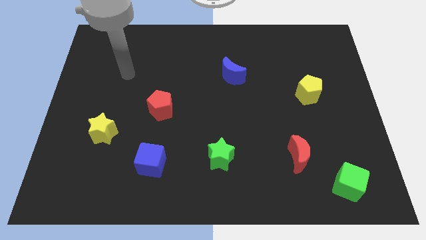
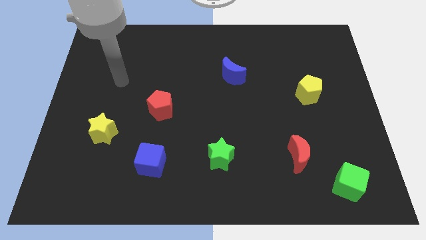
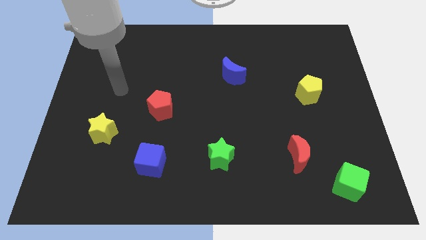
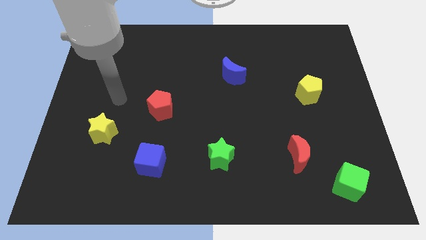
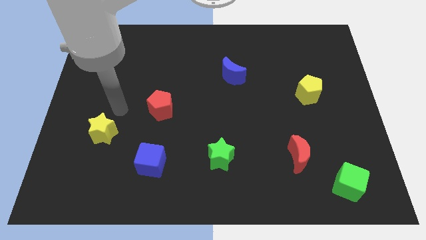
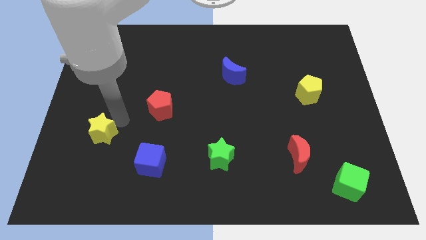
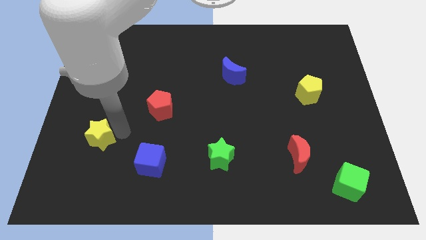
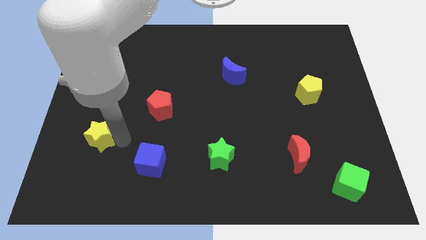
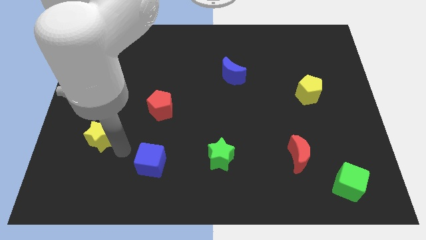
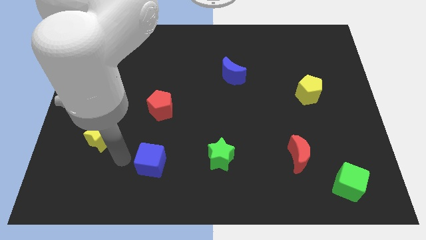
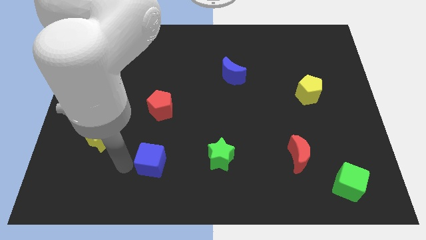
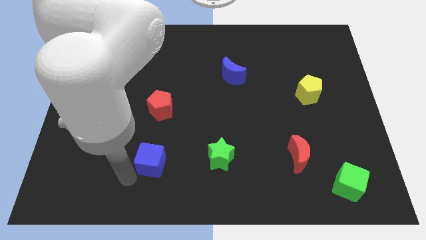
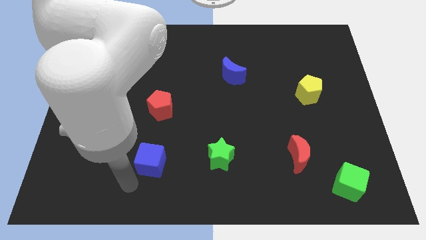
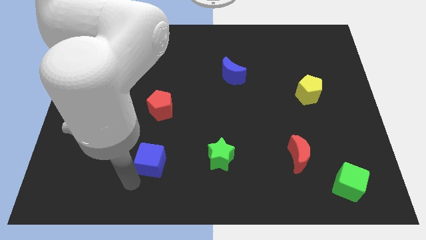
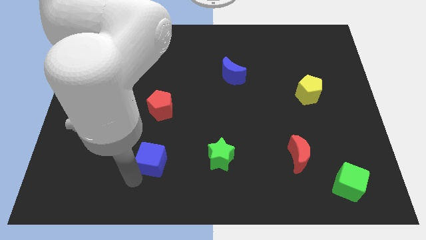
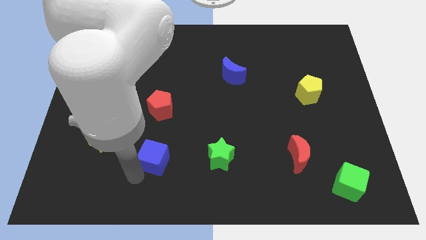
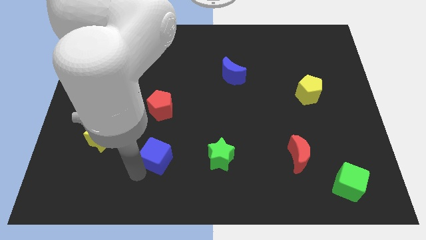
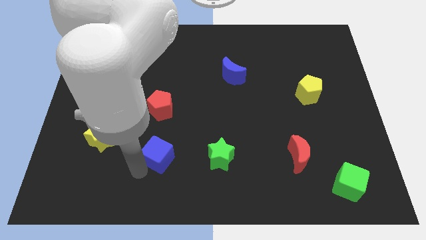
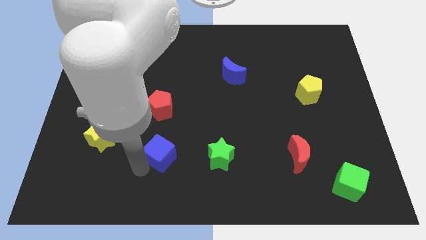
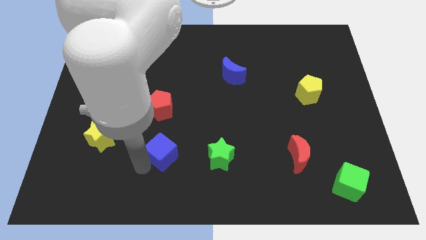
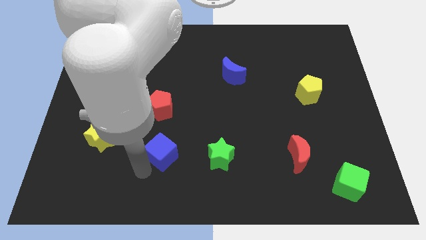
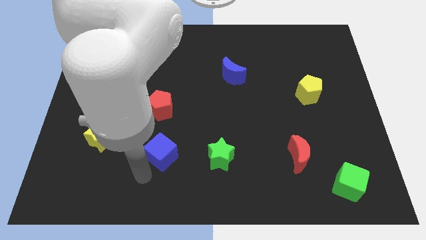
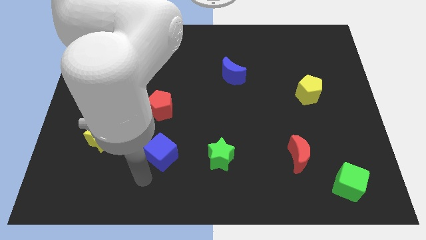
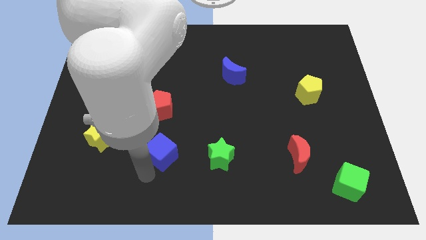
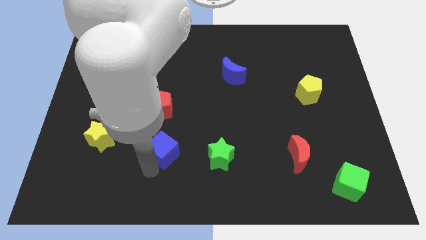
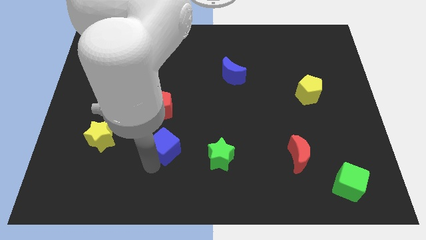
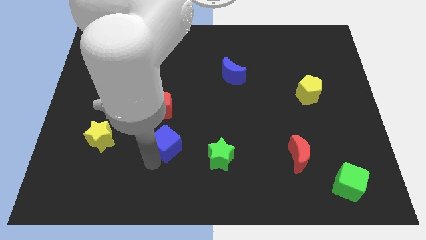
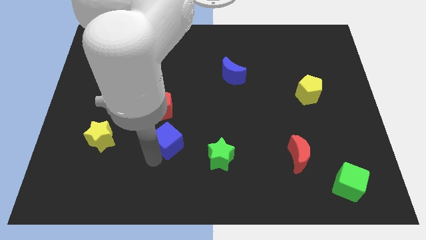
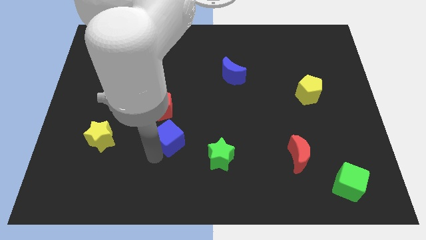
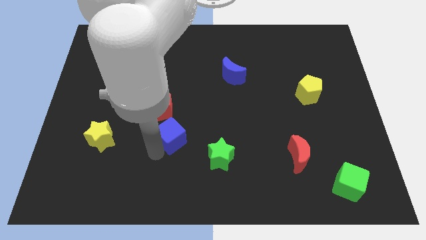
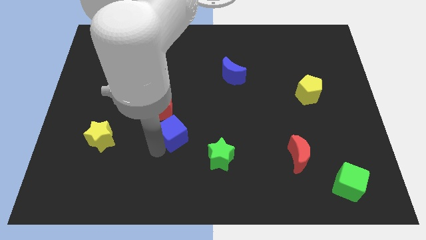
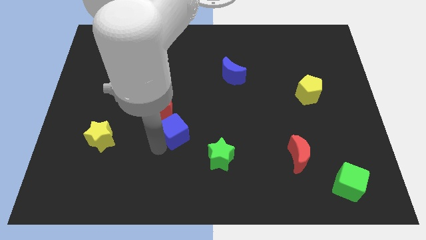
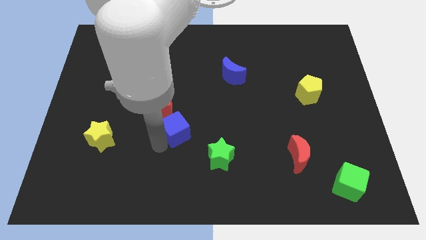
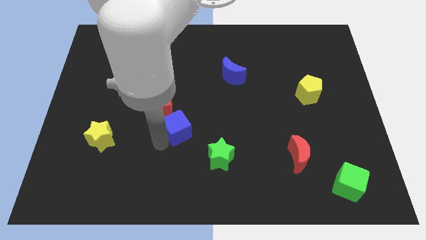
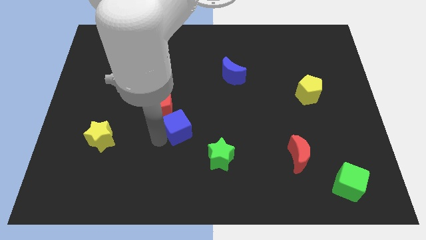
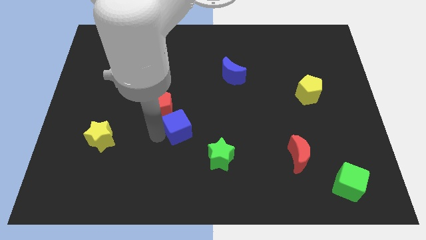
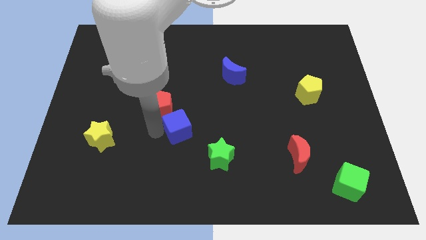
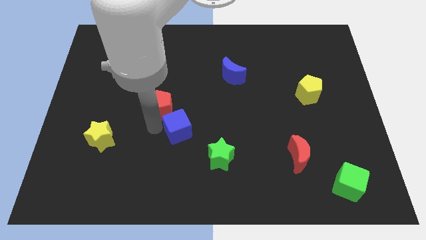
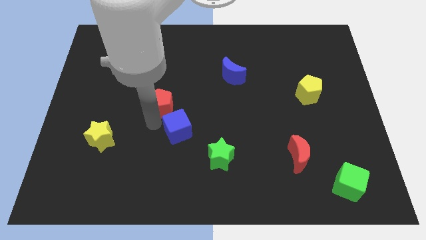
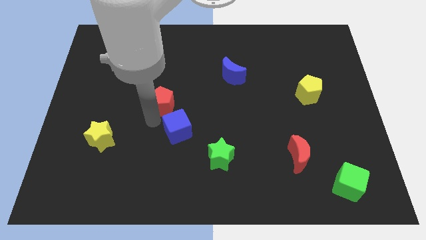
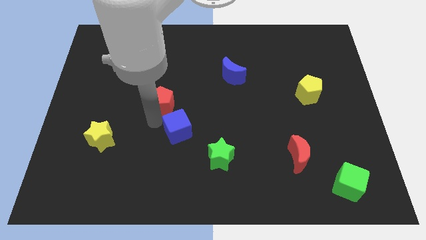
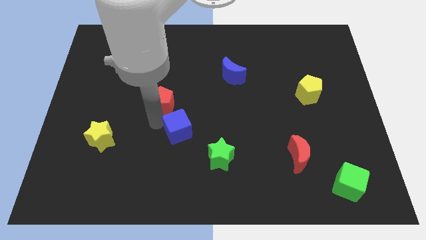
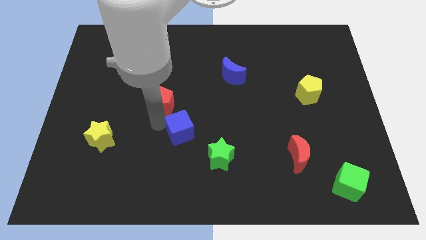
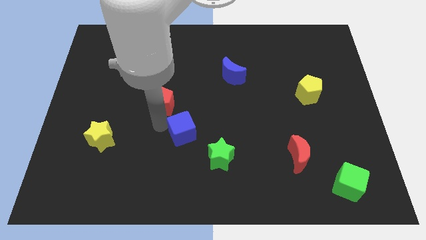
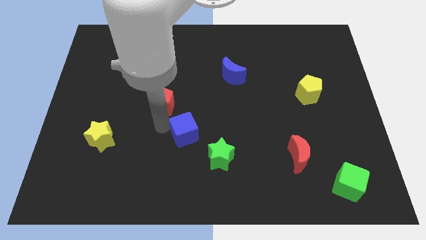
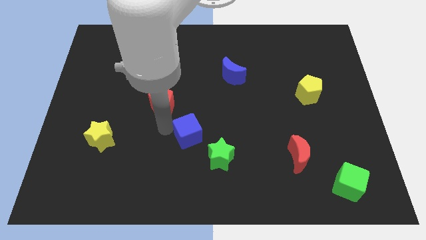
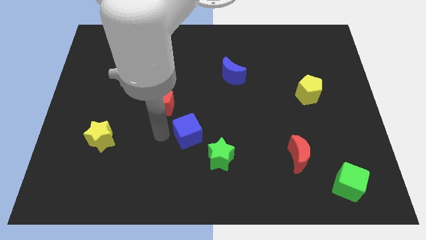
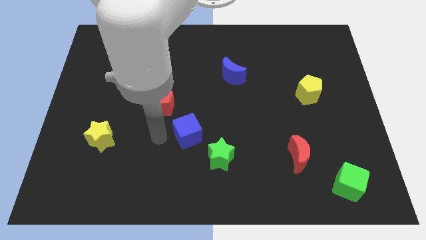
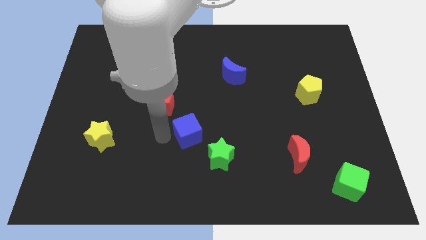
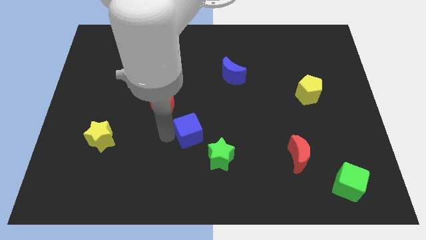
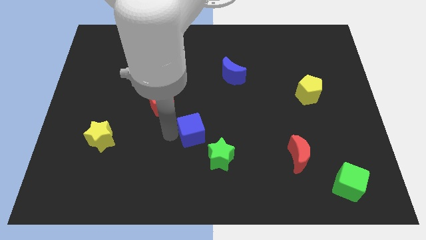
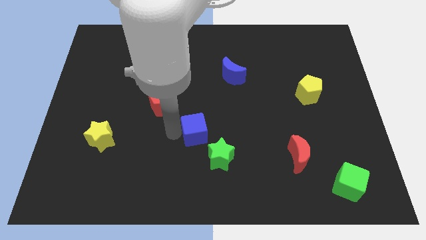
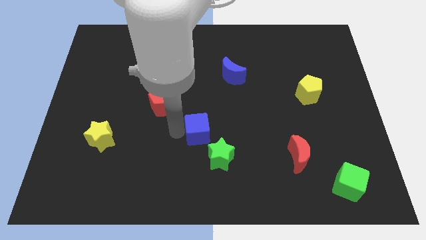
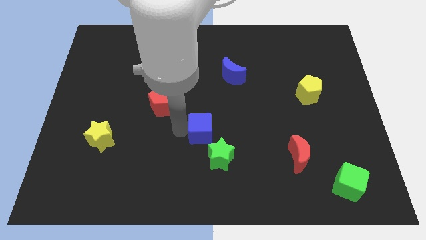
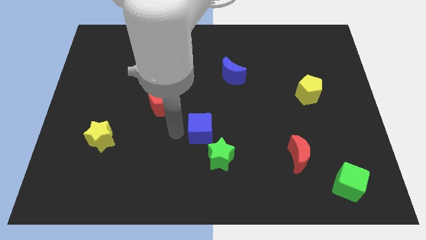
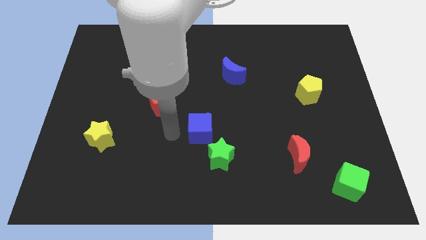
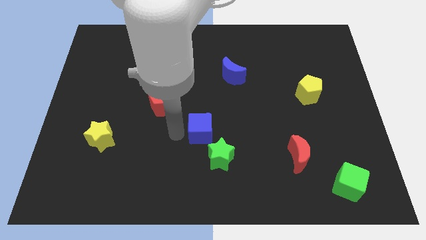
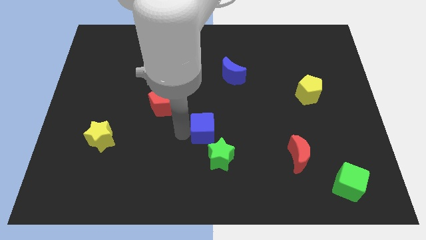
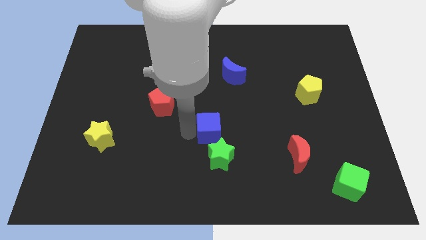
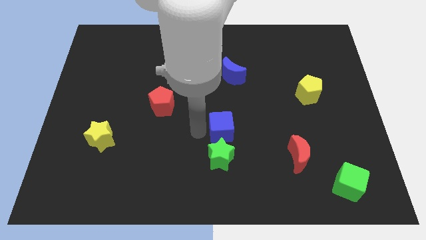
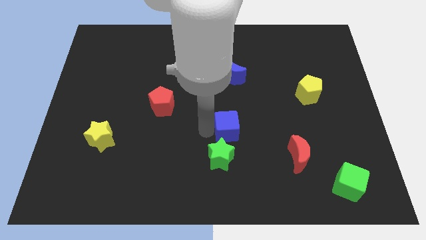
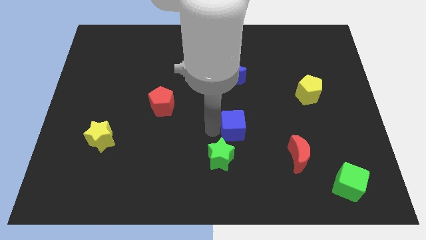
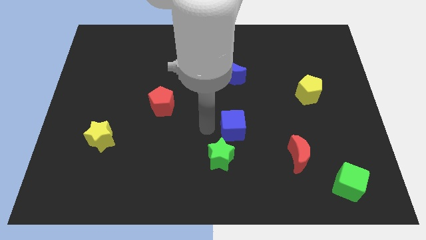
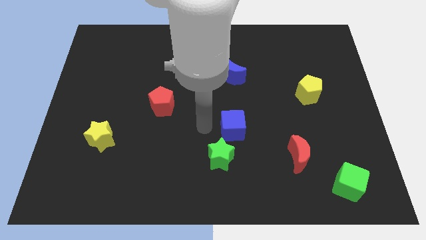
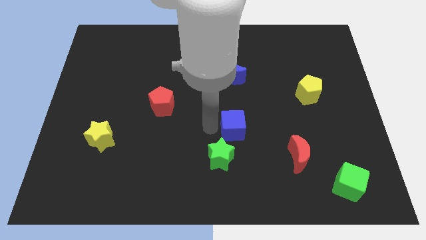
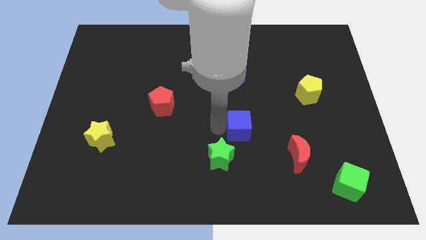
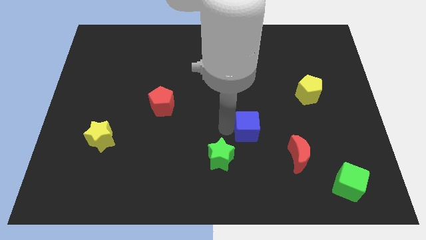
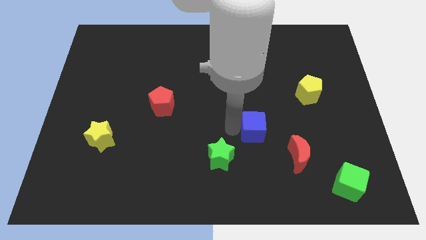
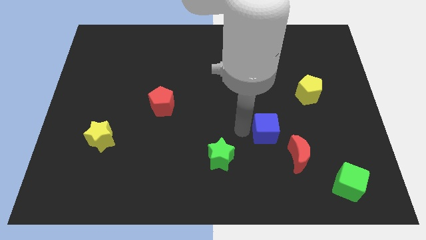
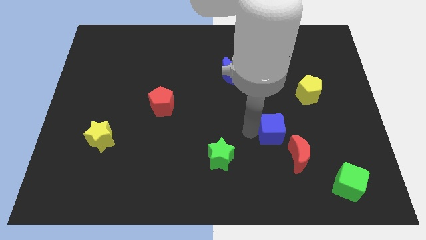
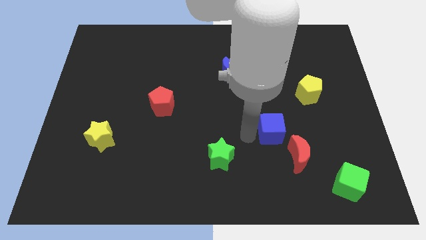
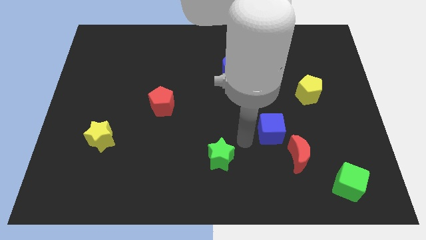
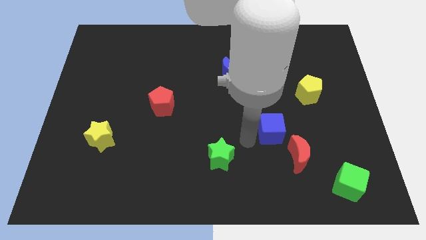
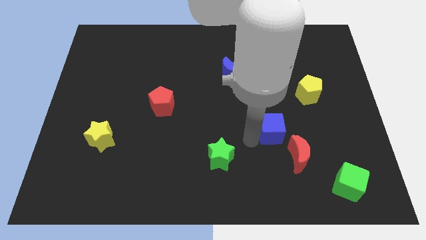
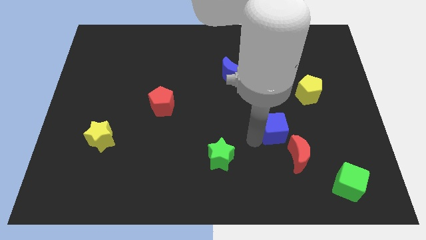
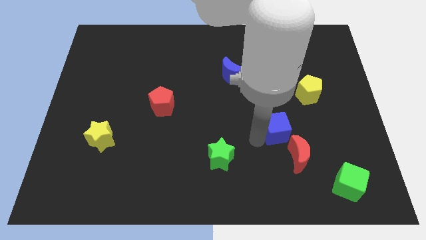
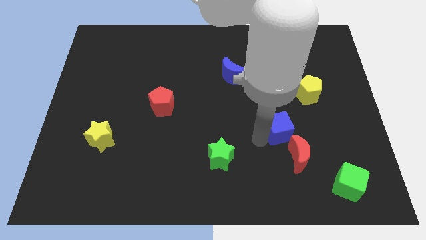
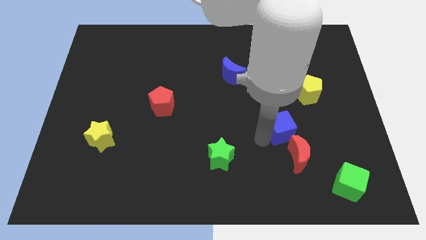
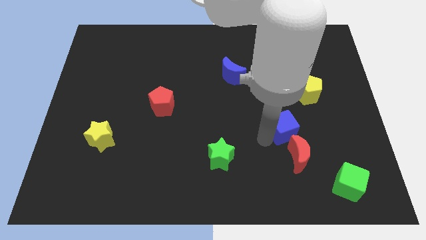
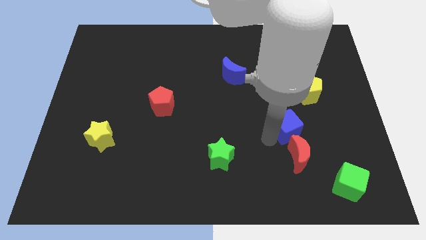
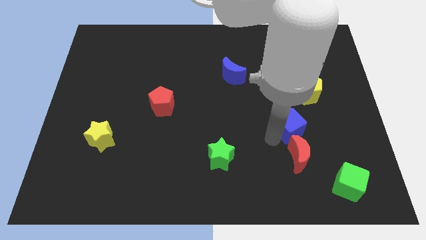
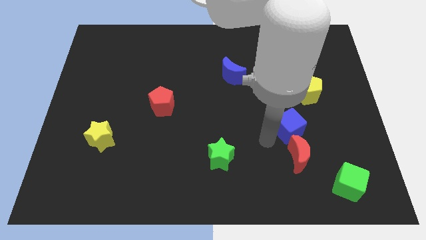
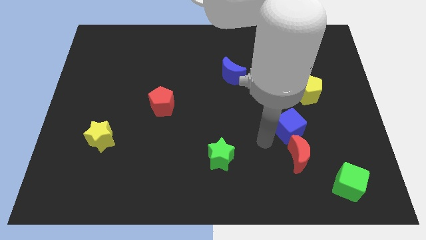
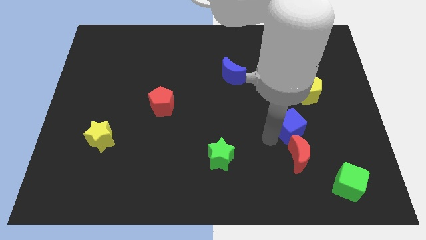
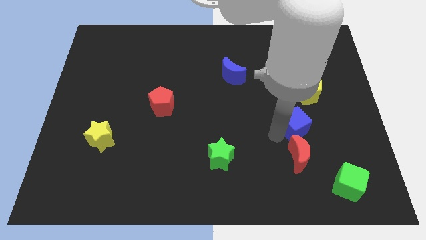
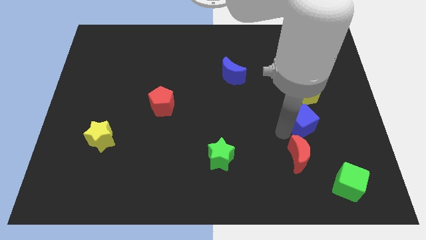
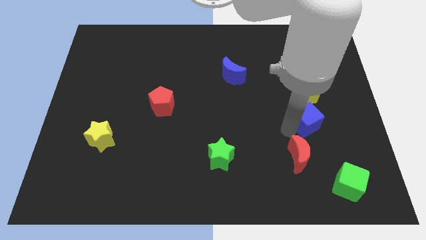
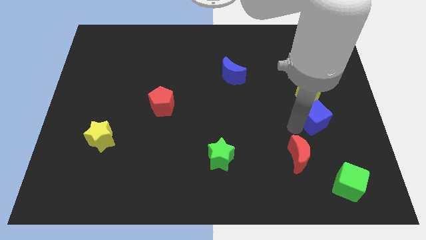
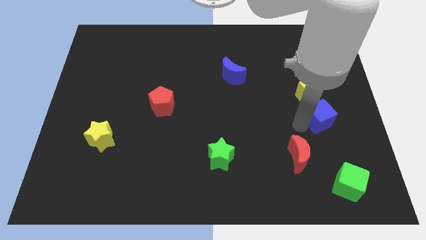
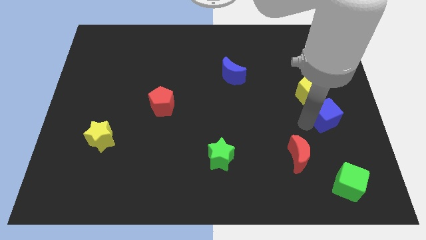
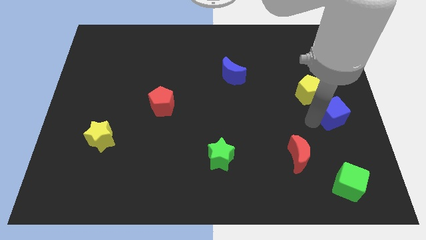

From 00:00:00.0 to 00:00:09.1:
put the blue cube to the right side of the board
